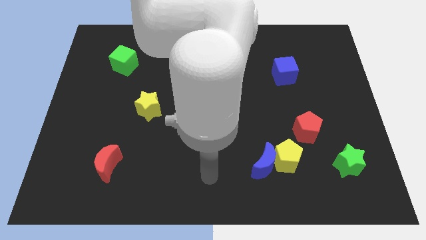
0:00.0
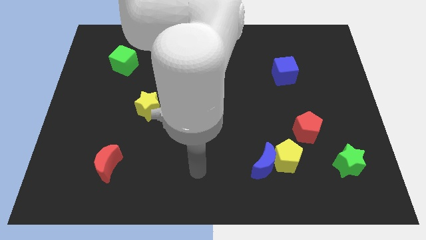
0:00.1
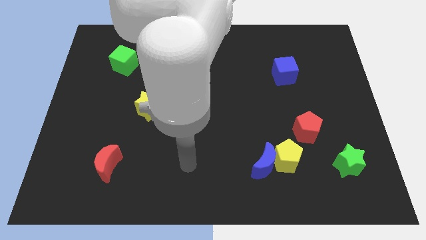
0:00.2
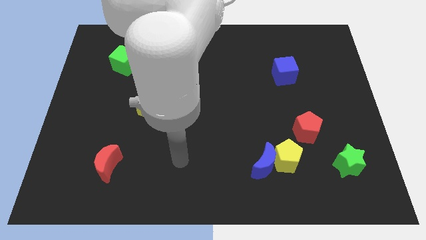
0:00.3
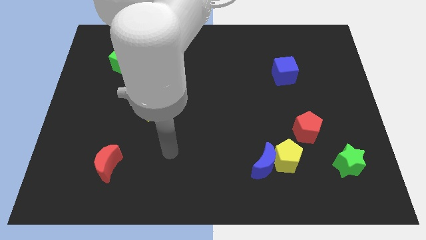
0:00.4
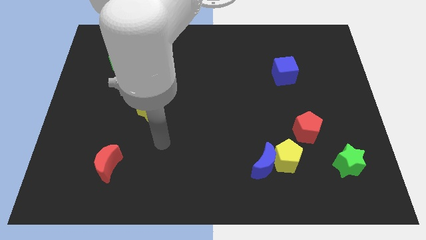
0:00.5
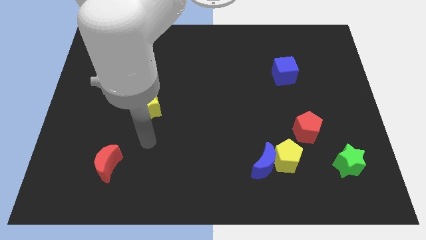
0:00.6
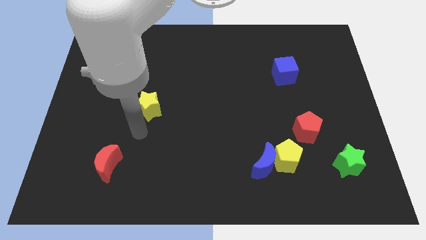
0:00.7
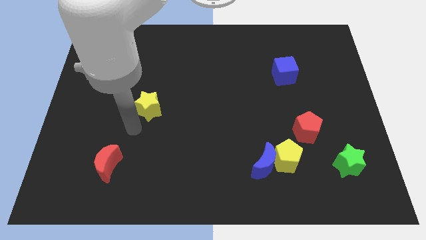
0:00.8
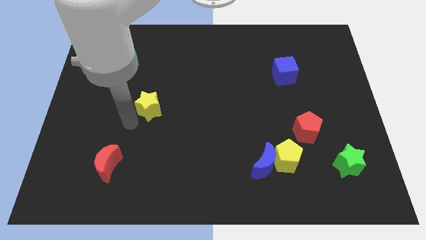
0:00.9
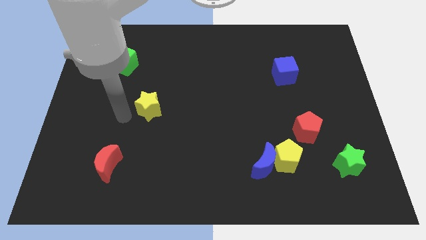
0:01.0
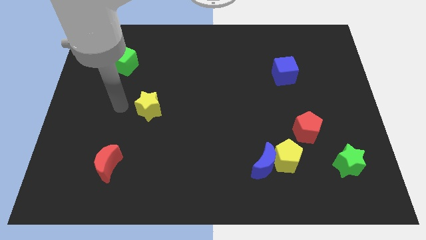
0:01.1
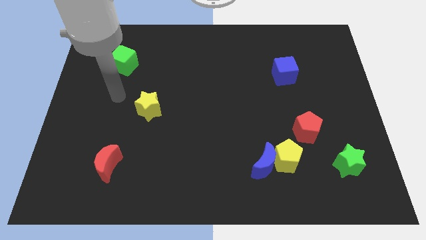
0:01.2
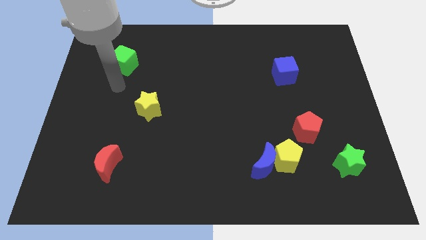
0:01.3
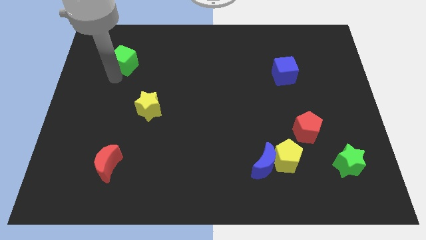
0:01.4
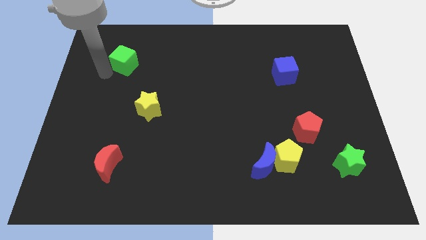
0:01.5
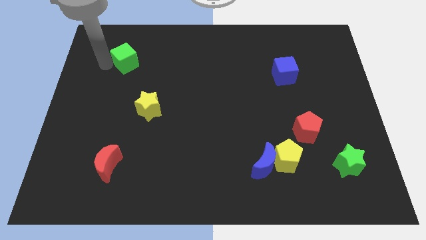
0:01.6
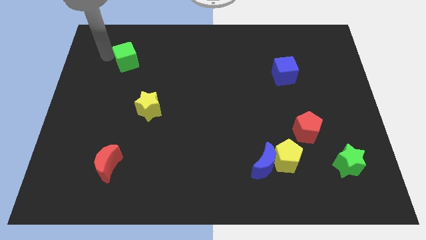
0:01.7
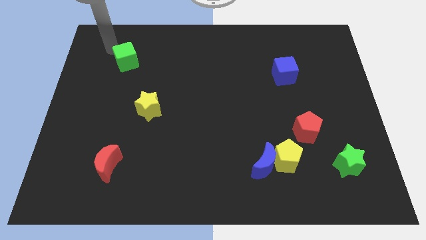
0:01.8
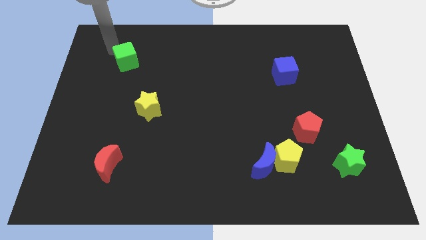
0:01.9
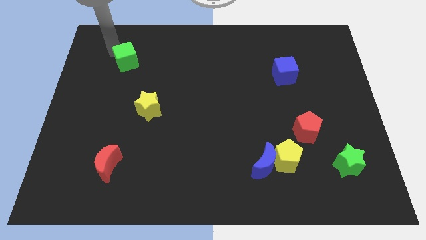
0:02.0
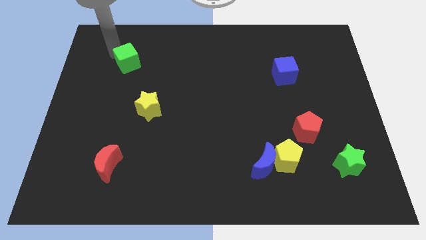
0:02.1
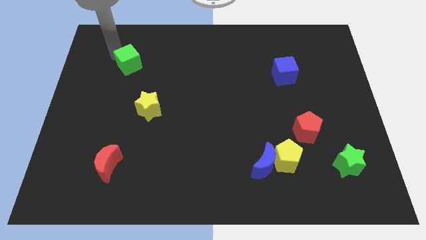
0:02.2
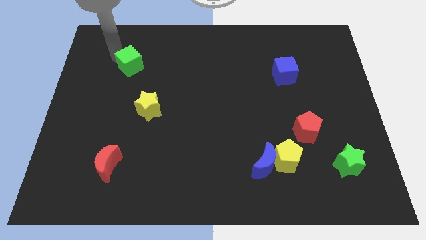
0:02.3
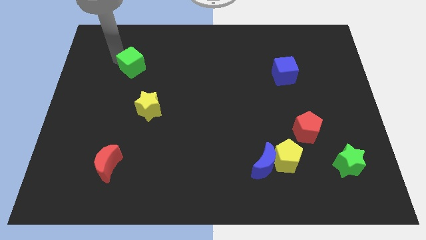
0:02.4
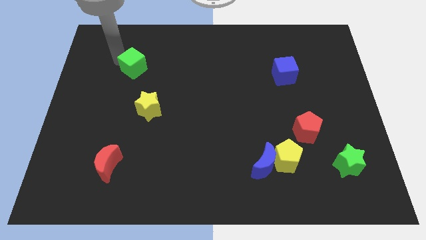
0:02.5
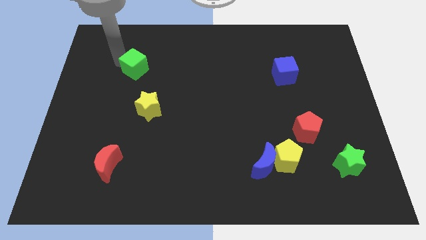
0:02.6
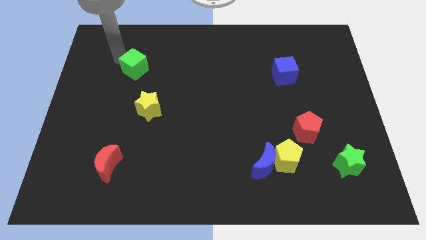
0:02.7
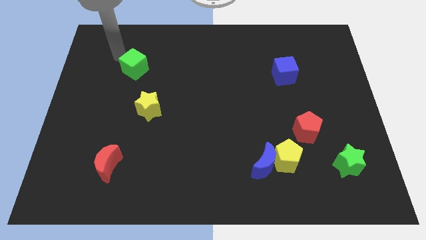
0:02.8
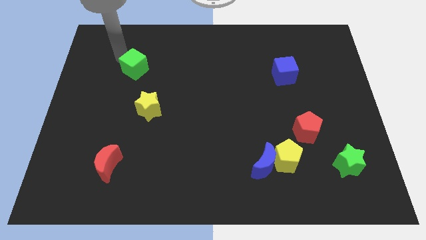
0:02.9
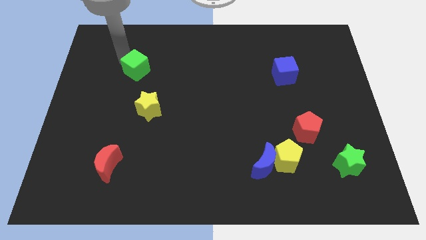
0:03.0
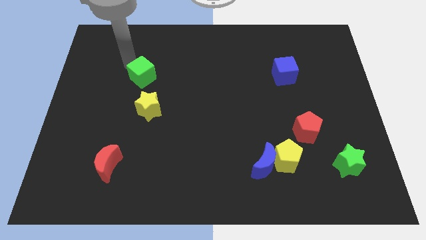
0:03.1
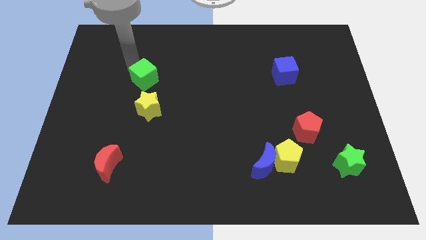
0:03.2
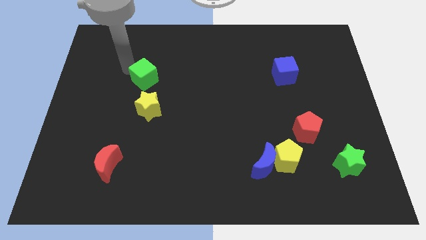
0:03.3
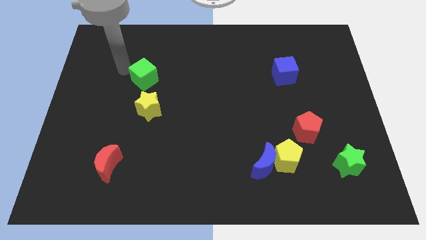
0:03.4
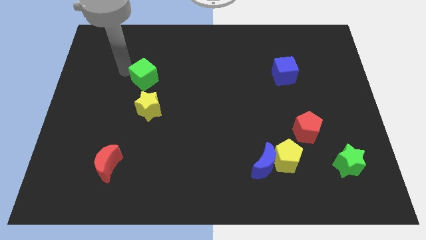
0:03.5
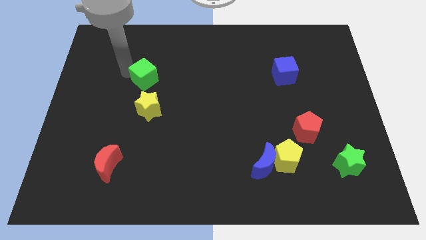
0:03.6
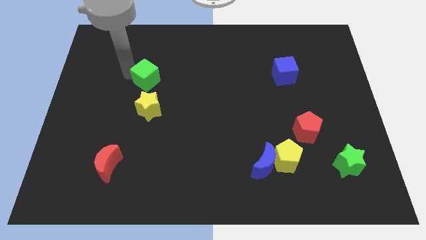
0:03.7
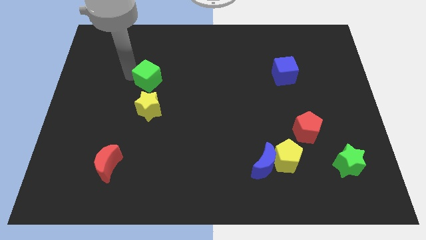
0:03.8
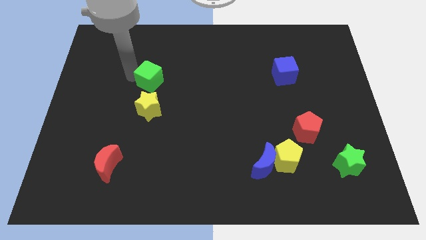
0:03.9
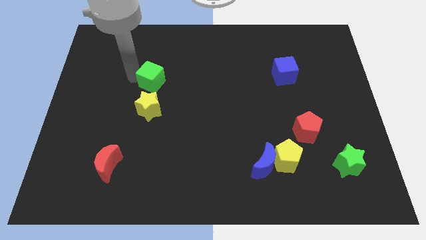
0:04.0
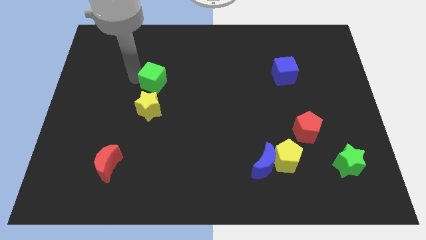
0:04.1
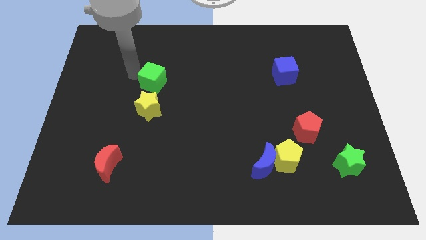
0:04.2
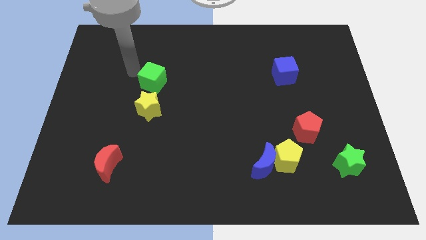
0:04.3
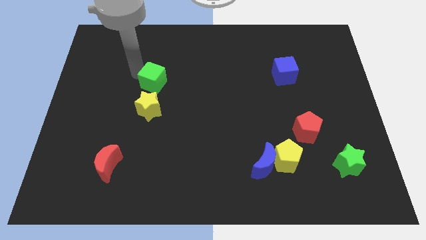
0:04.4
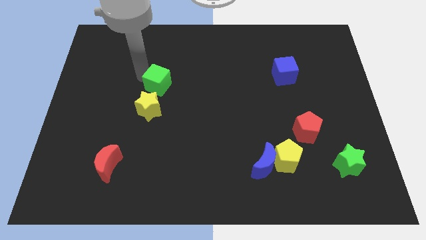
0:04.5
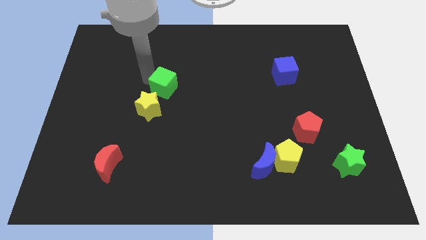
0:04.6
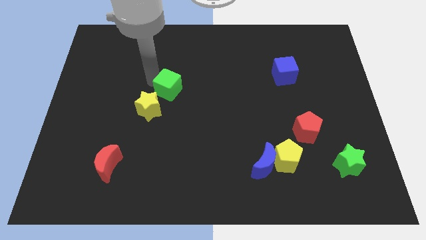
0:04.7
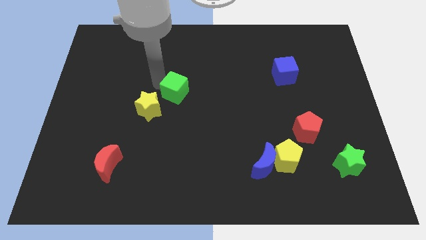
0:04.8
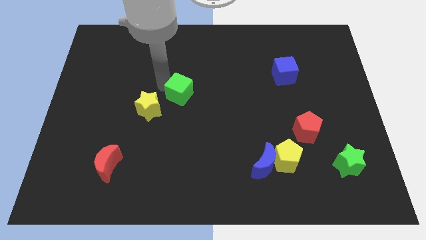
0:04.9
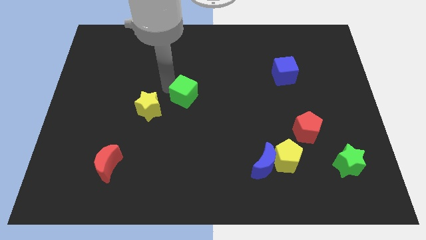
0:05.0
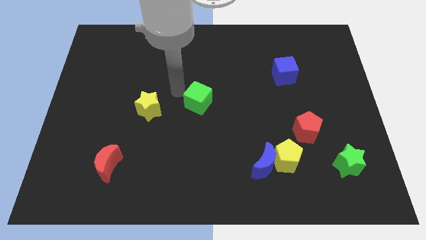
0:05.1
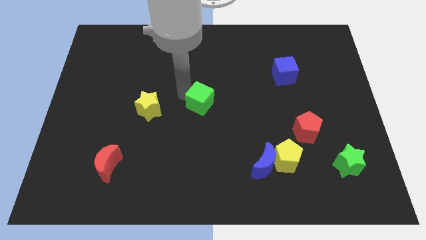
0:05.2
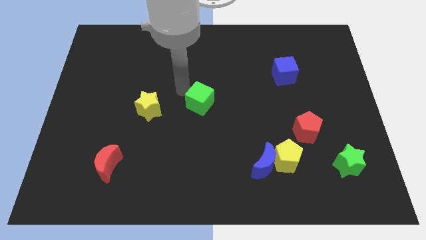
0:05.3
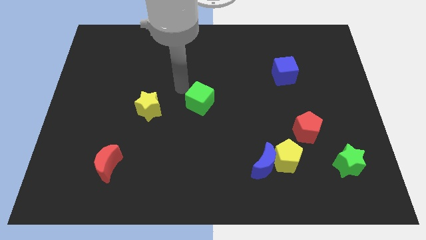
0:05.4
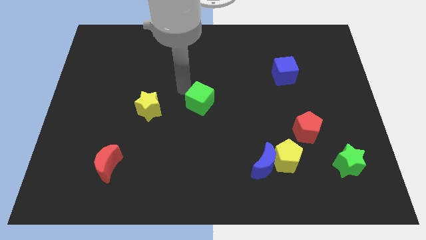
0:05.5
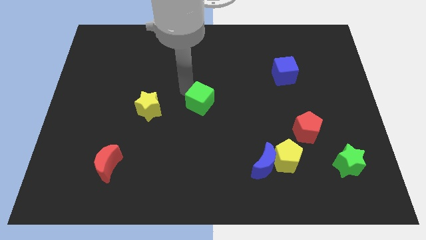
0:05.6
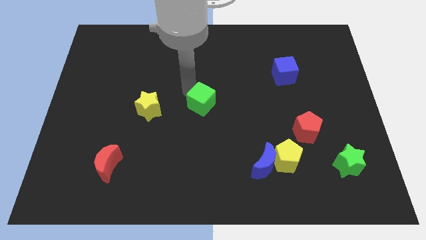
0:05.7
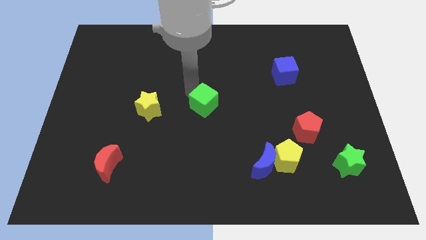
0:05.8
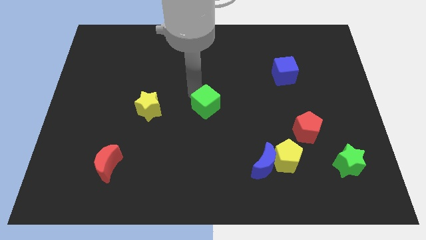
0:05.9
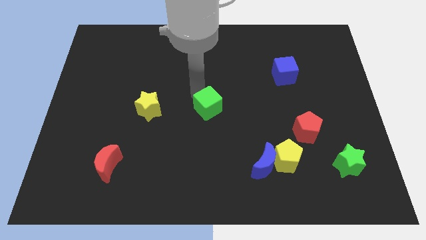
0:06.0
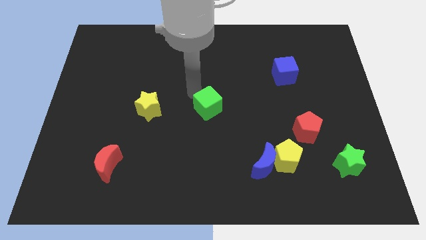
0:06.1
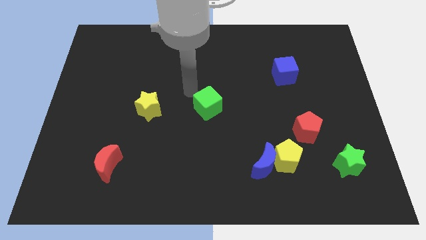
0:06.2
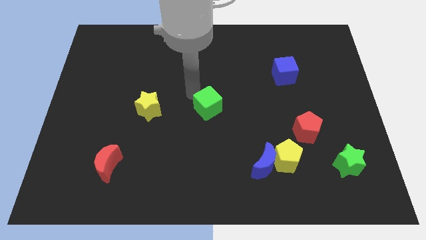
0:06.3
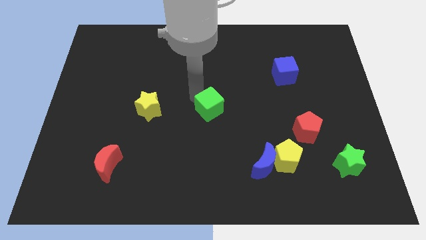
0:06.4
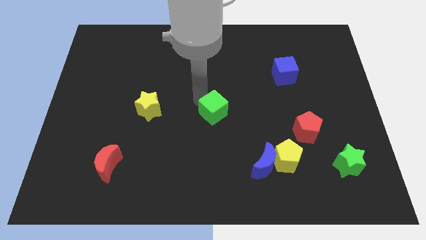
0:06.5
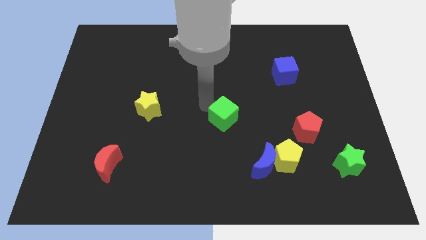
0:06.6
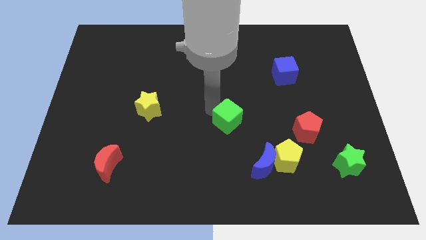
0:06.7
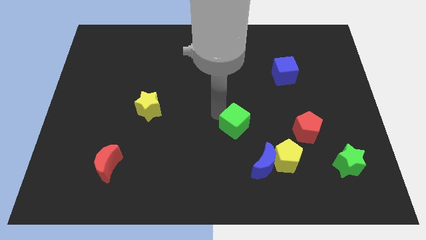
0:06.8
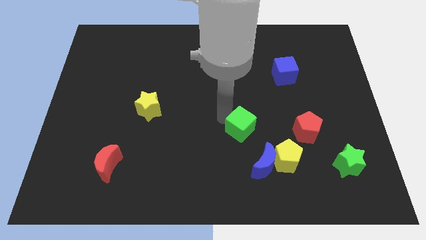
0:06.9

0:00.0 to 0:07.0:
slide the green cube to the top left of the yellow pentagon
